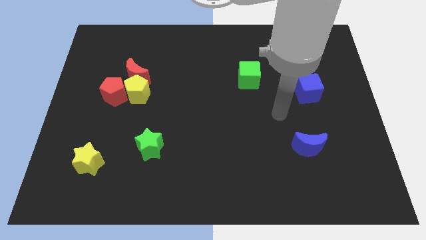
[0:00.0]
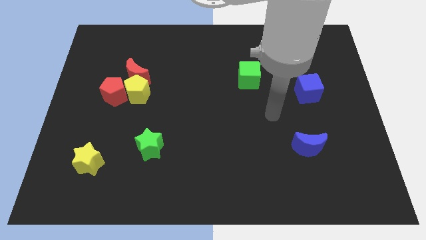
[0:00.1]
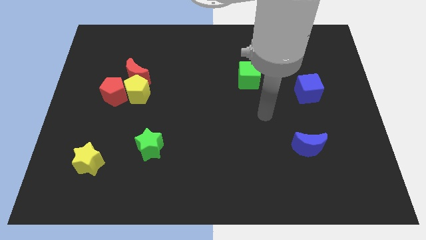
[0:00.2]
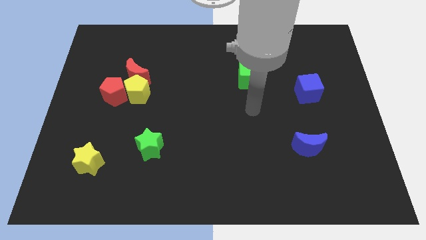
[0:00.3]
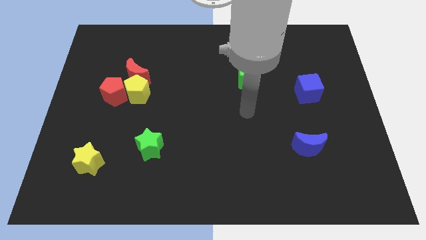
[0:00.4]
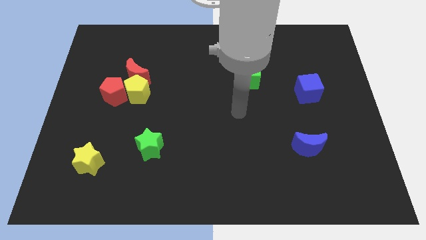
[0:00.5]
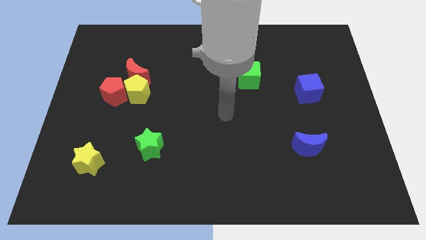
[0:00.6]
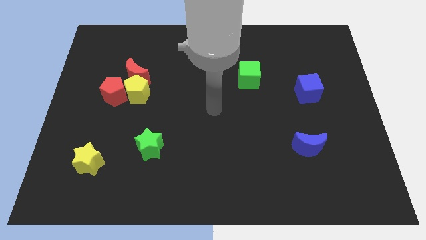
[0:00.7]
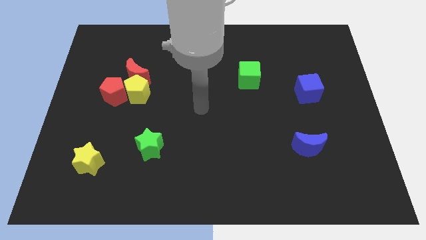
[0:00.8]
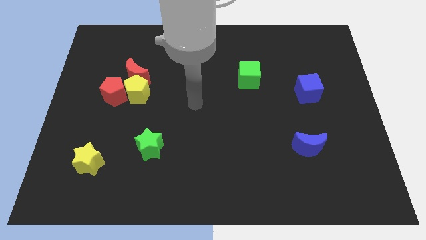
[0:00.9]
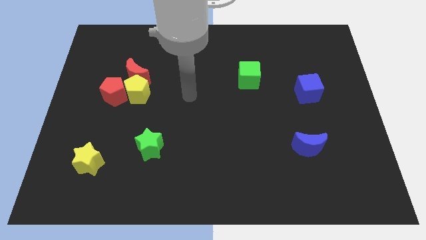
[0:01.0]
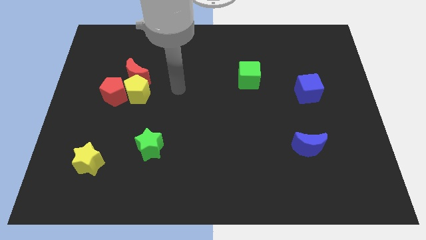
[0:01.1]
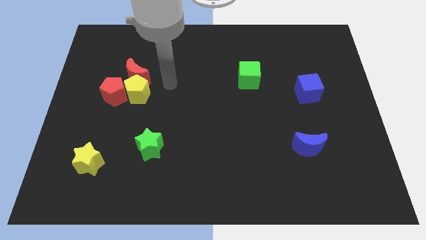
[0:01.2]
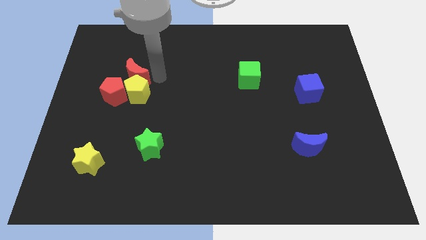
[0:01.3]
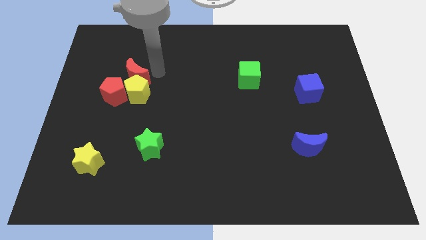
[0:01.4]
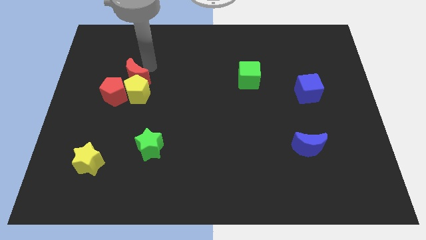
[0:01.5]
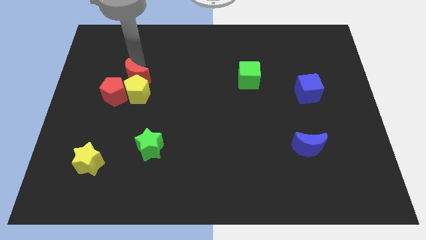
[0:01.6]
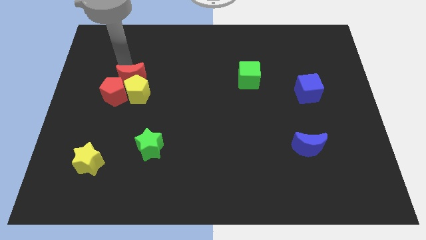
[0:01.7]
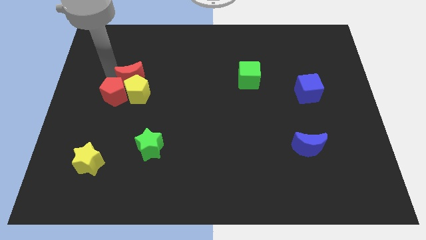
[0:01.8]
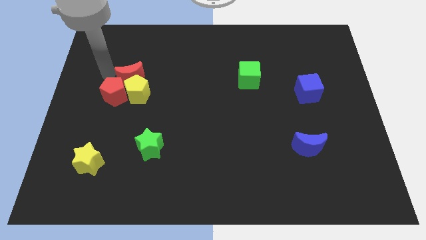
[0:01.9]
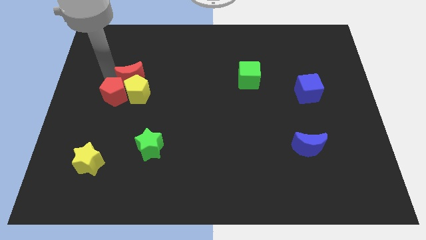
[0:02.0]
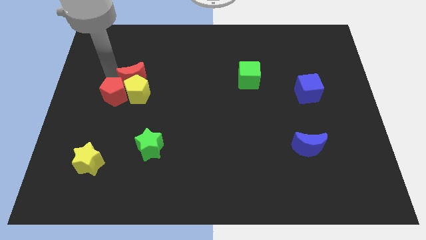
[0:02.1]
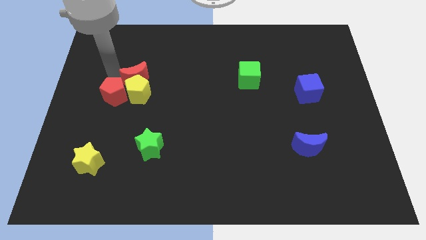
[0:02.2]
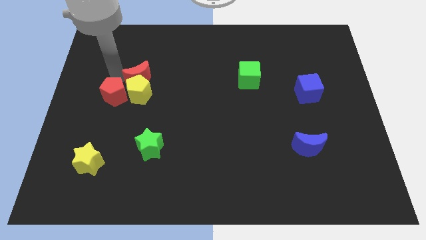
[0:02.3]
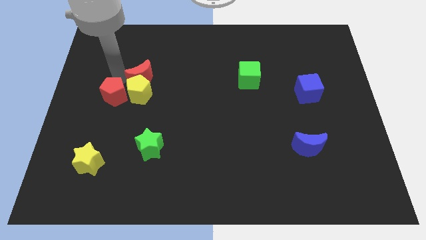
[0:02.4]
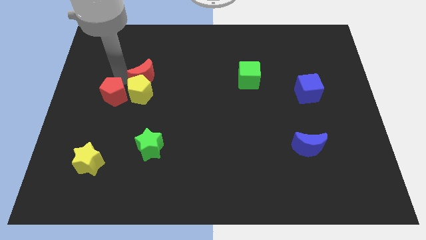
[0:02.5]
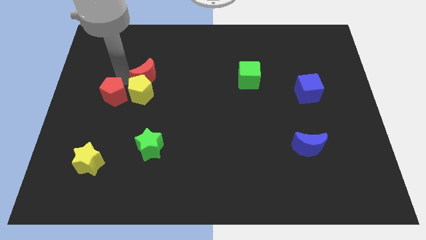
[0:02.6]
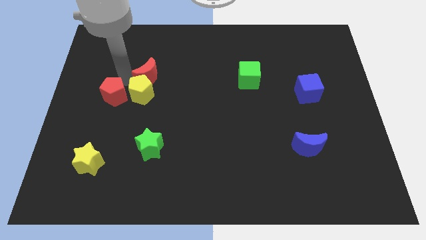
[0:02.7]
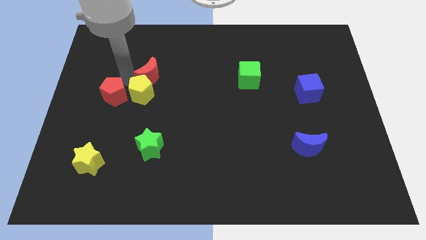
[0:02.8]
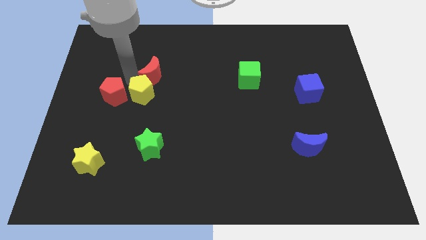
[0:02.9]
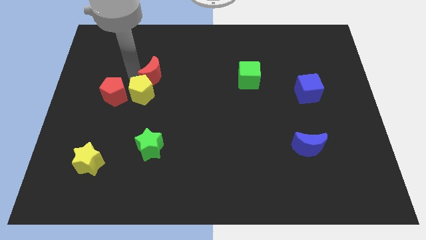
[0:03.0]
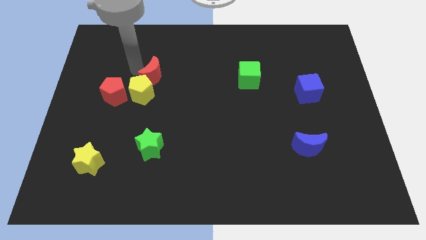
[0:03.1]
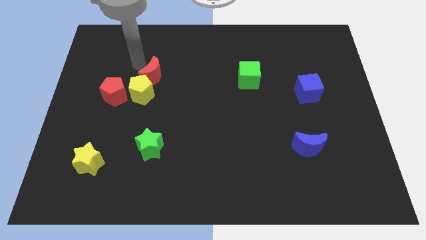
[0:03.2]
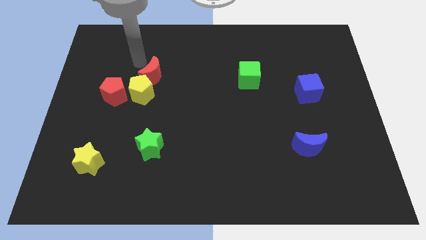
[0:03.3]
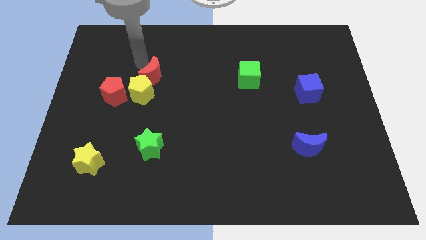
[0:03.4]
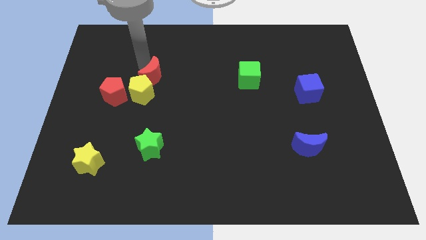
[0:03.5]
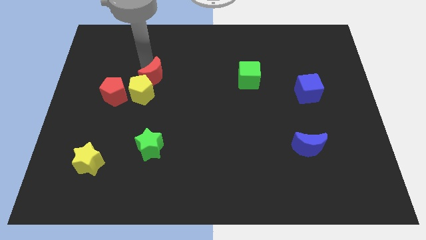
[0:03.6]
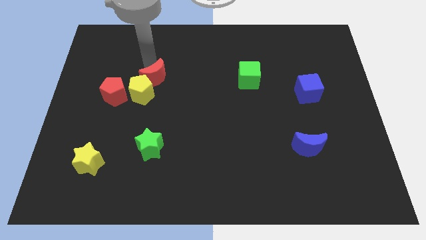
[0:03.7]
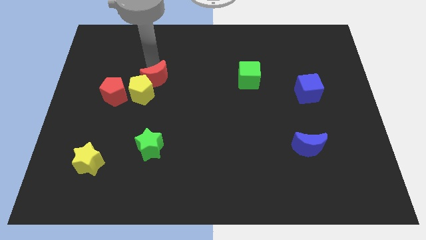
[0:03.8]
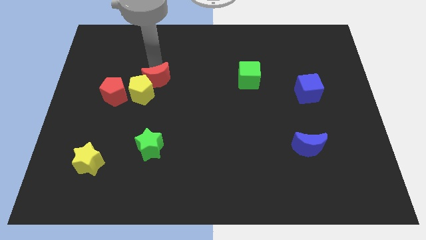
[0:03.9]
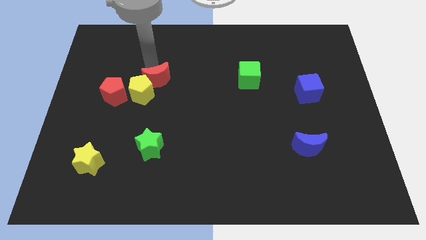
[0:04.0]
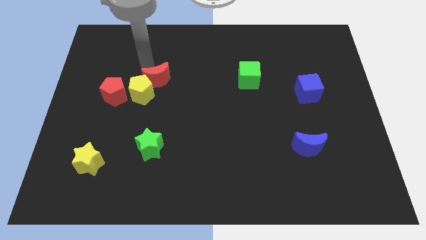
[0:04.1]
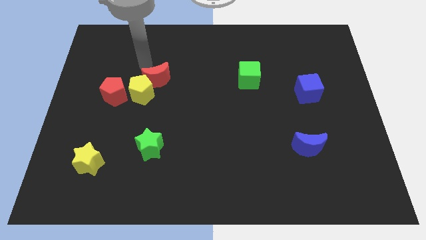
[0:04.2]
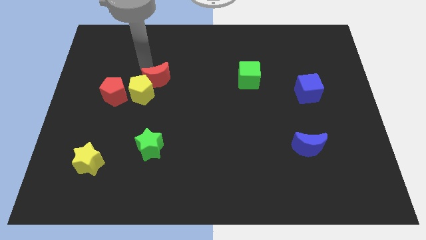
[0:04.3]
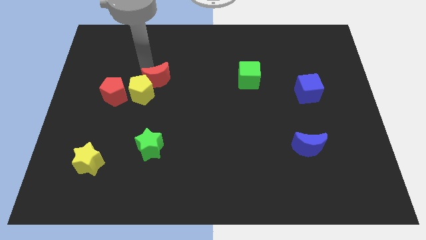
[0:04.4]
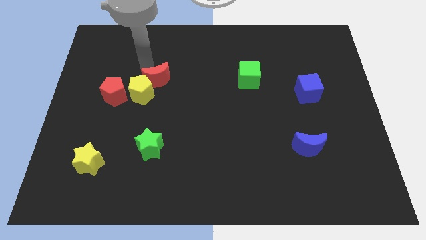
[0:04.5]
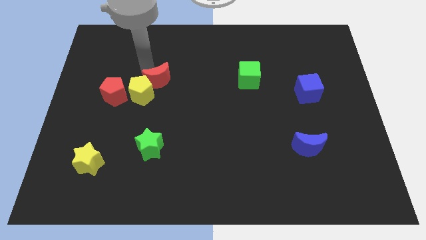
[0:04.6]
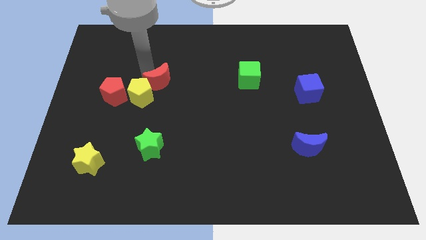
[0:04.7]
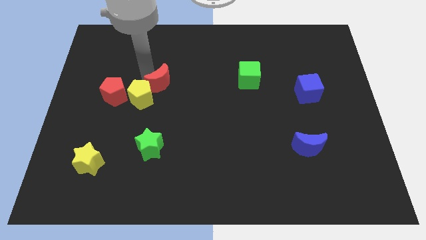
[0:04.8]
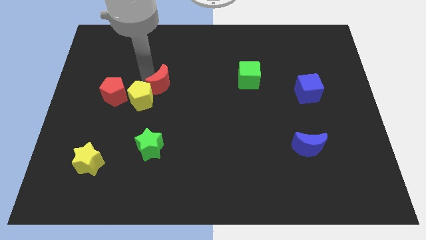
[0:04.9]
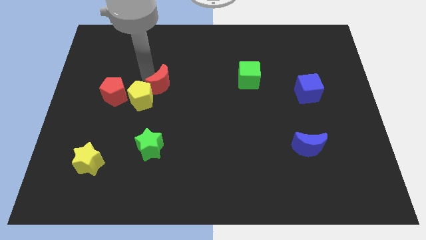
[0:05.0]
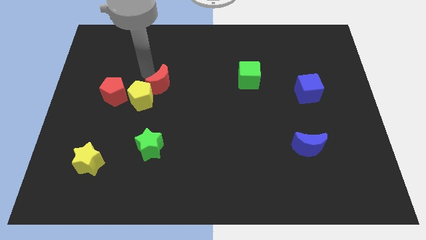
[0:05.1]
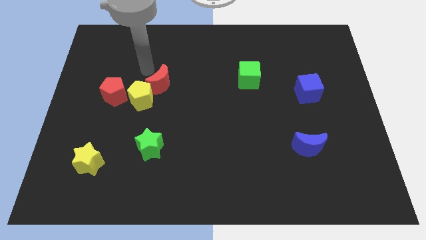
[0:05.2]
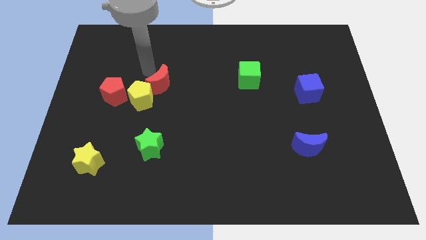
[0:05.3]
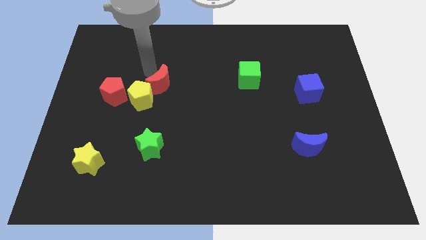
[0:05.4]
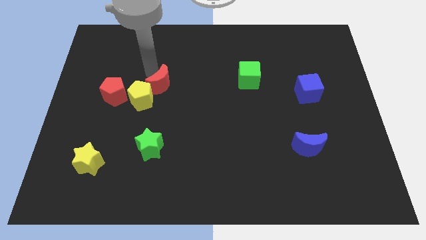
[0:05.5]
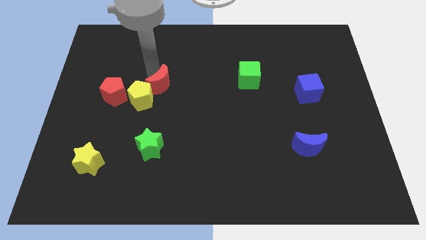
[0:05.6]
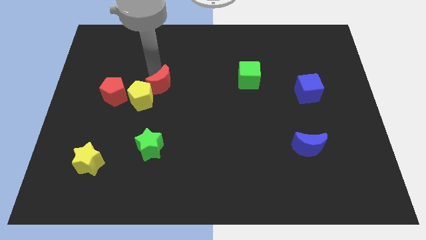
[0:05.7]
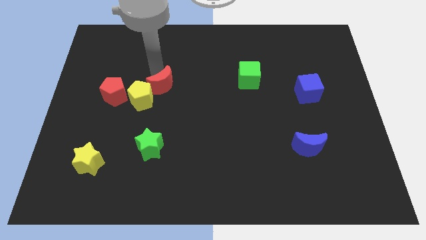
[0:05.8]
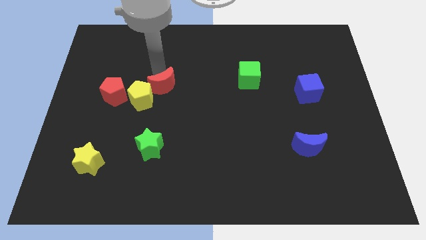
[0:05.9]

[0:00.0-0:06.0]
move the red moon down and right diagonally a little bit

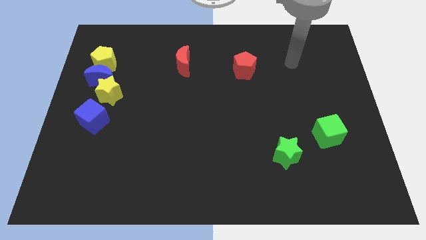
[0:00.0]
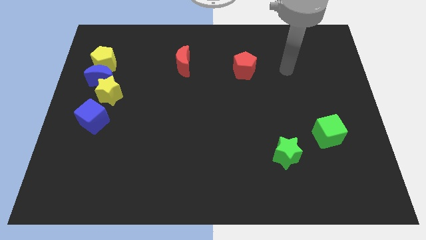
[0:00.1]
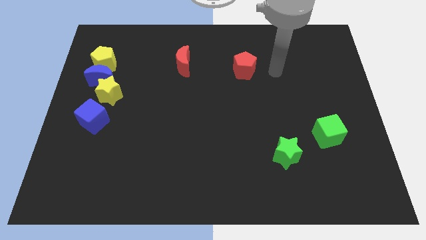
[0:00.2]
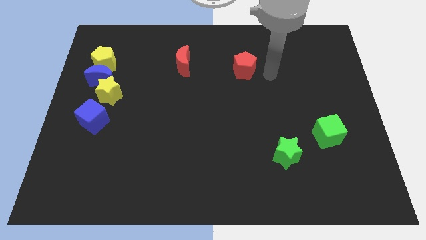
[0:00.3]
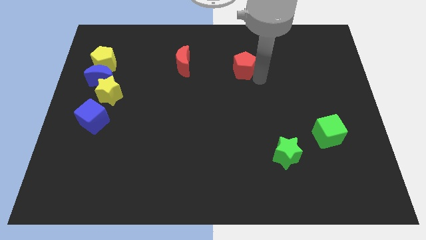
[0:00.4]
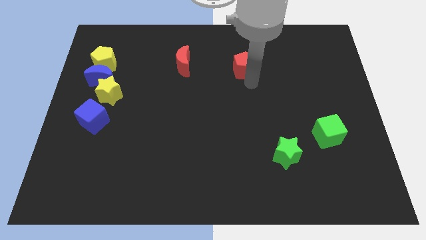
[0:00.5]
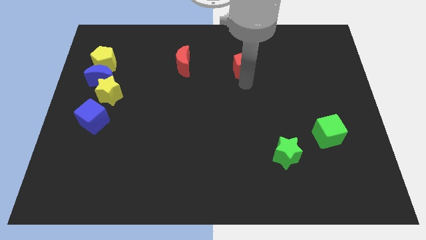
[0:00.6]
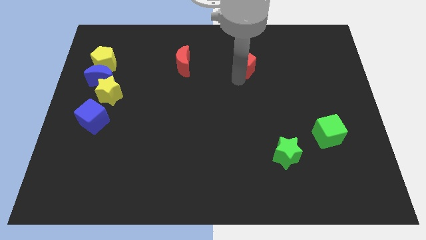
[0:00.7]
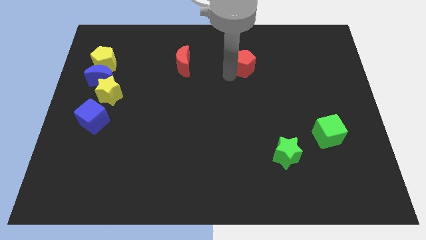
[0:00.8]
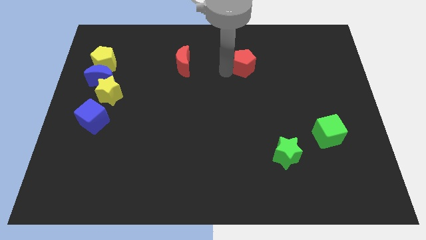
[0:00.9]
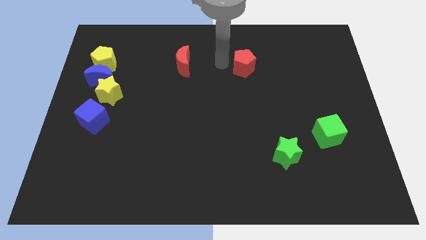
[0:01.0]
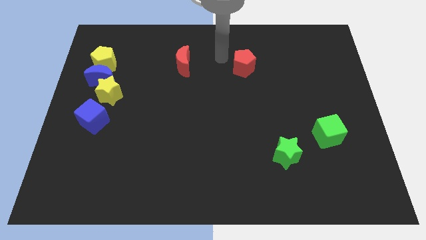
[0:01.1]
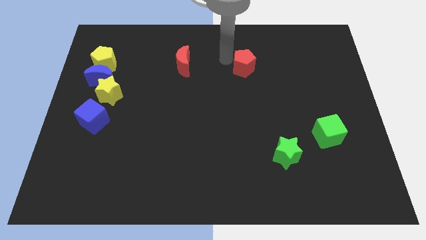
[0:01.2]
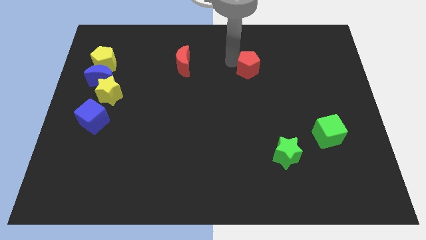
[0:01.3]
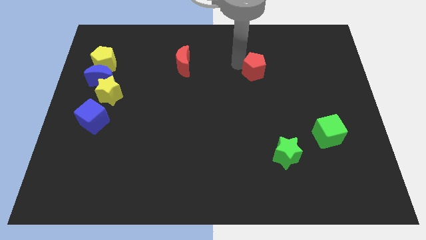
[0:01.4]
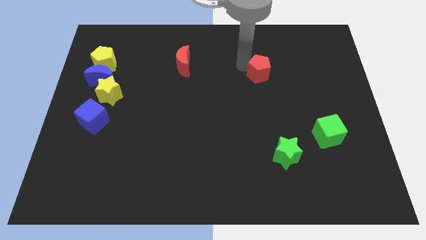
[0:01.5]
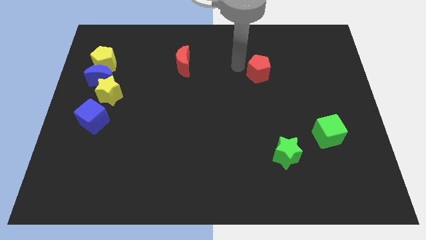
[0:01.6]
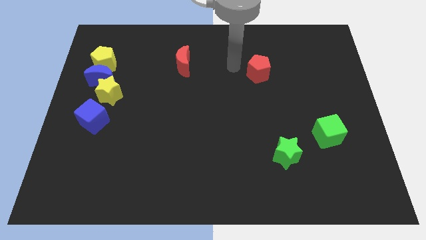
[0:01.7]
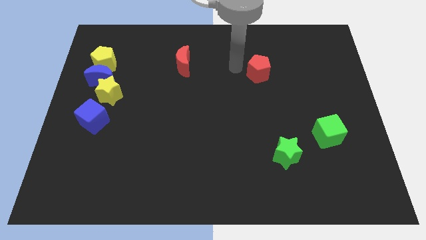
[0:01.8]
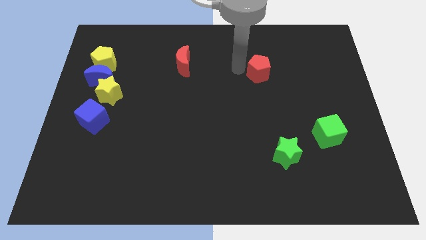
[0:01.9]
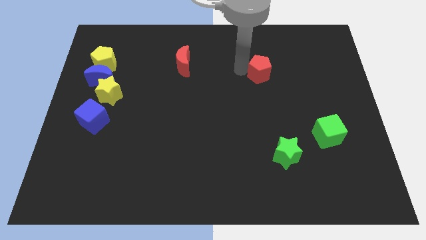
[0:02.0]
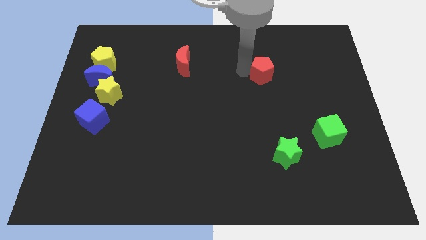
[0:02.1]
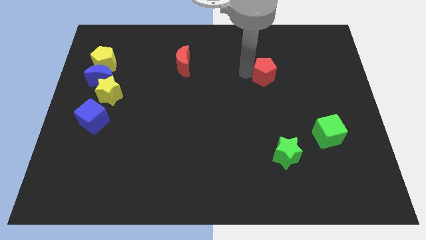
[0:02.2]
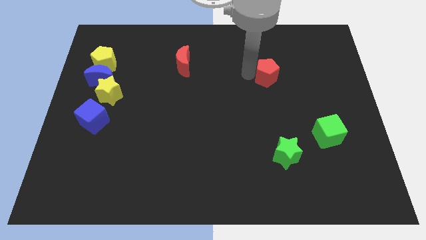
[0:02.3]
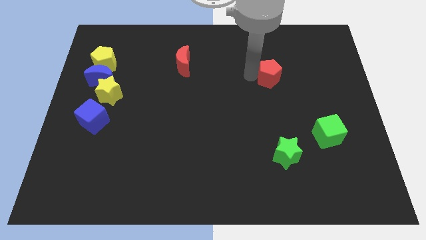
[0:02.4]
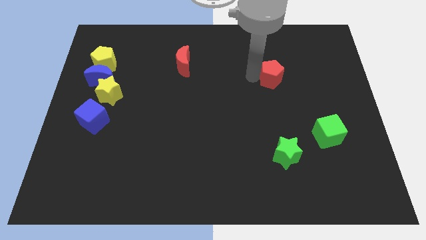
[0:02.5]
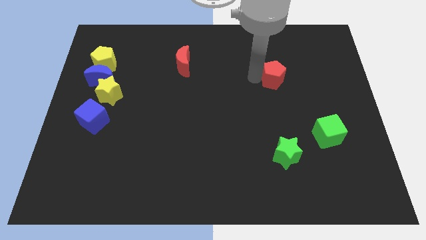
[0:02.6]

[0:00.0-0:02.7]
move the red pentagon to the right slightly
